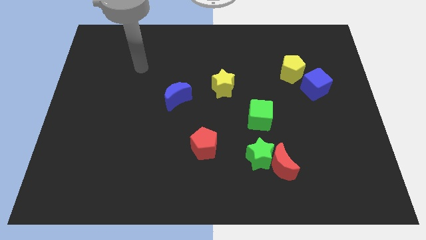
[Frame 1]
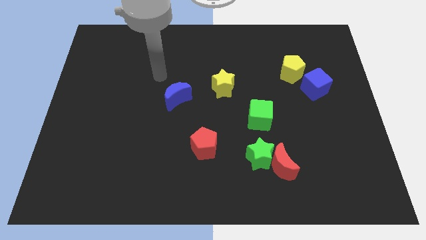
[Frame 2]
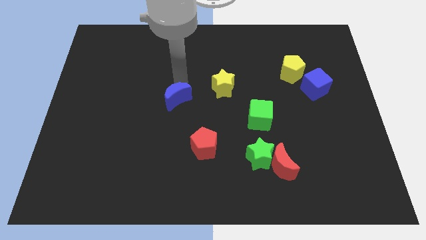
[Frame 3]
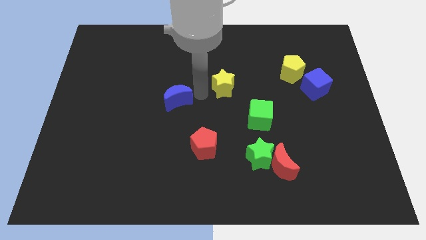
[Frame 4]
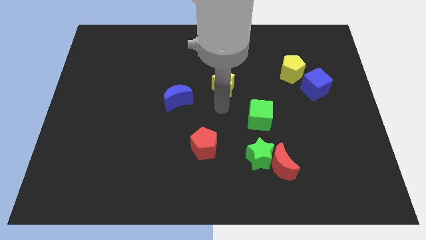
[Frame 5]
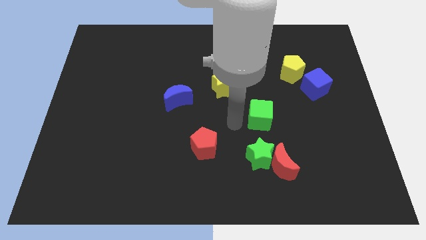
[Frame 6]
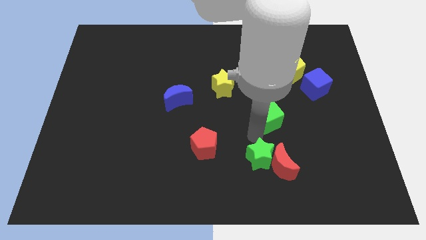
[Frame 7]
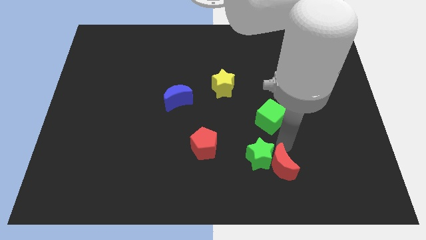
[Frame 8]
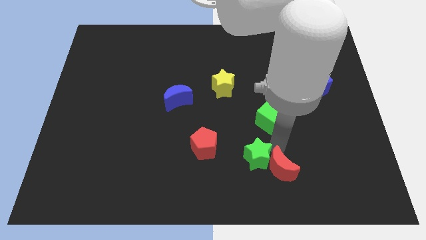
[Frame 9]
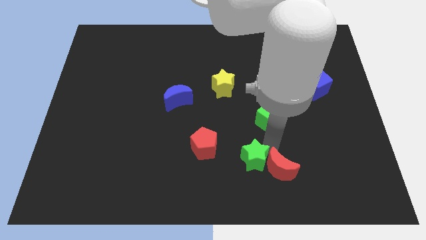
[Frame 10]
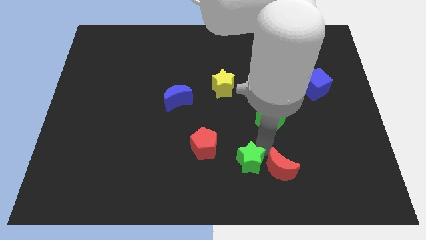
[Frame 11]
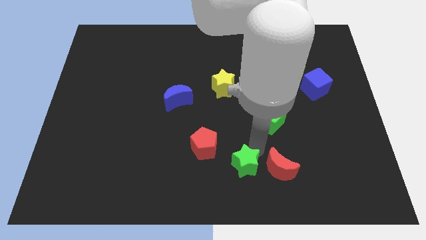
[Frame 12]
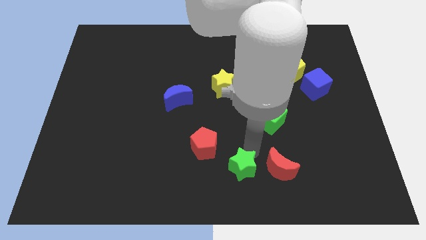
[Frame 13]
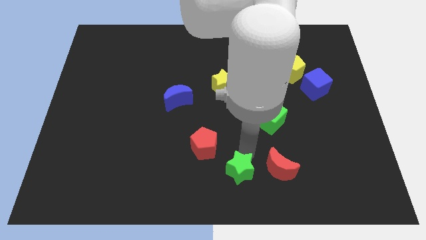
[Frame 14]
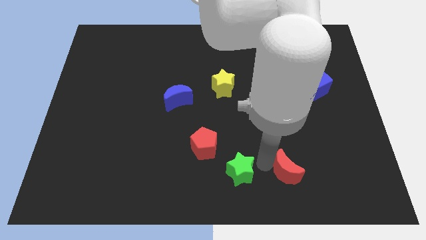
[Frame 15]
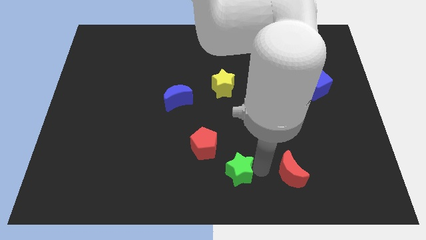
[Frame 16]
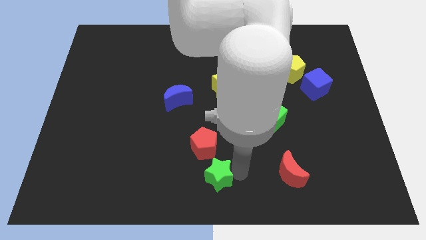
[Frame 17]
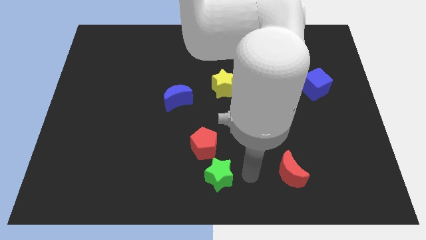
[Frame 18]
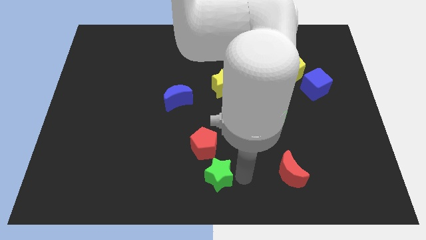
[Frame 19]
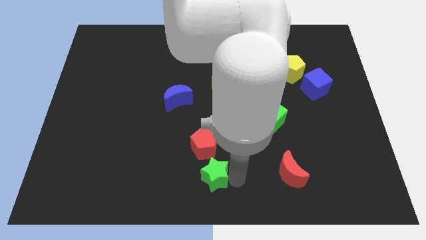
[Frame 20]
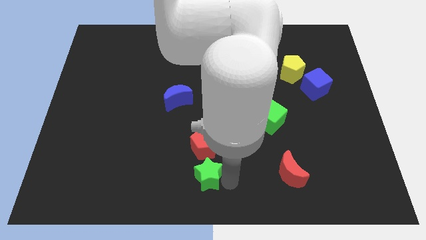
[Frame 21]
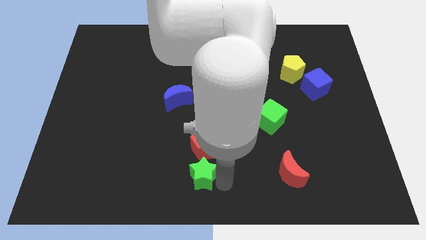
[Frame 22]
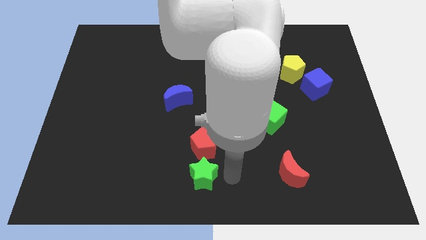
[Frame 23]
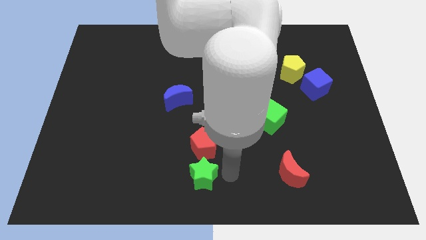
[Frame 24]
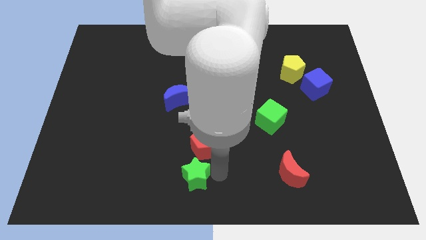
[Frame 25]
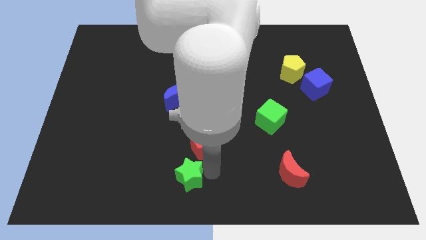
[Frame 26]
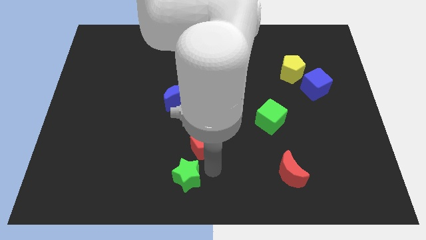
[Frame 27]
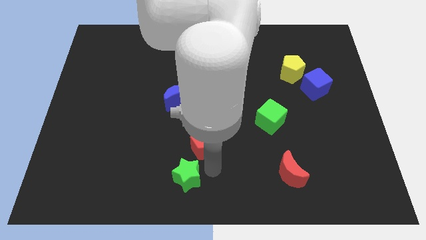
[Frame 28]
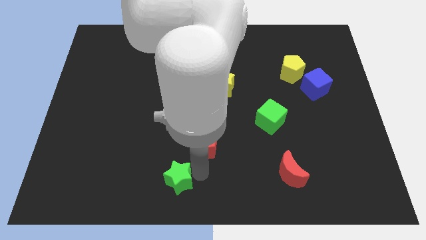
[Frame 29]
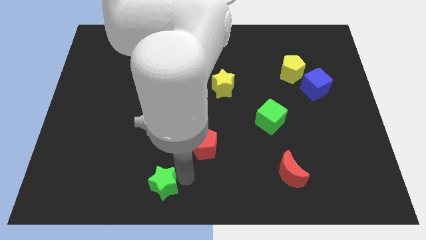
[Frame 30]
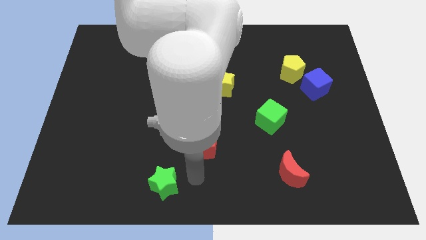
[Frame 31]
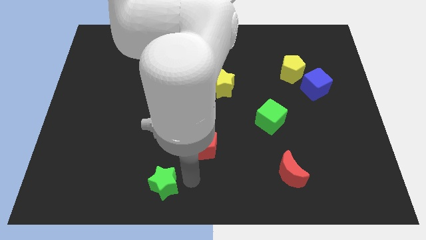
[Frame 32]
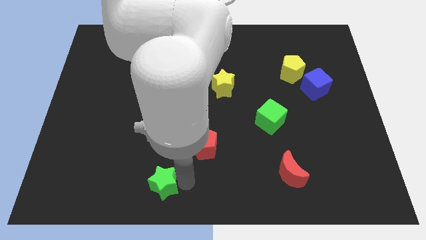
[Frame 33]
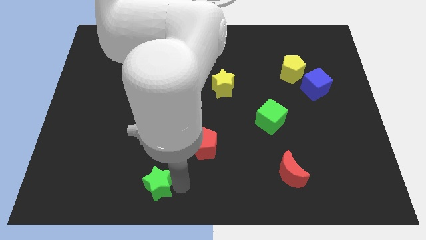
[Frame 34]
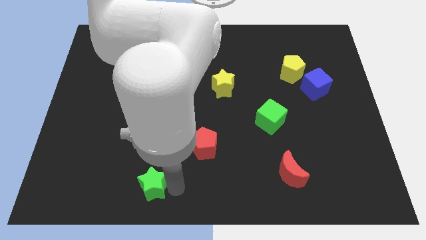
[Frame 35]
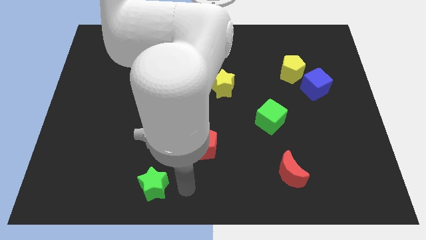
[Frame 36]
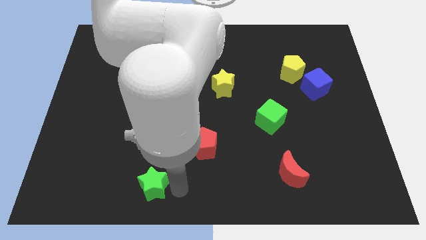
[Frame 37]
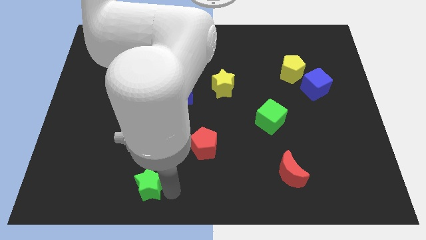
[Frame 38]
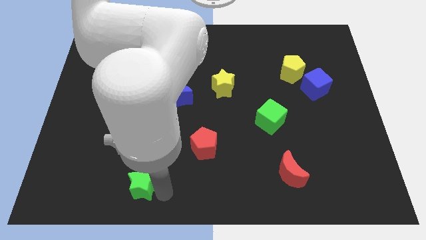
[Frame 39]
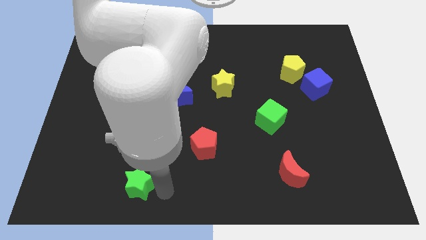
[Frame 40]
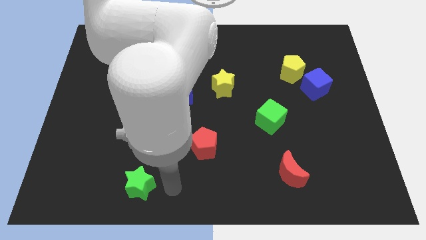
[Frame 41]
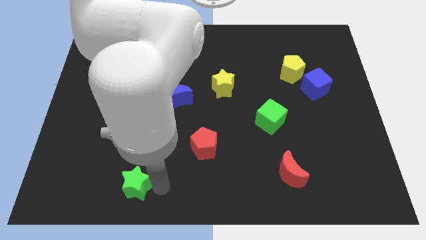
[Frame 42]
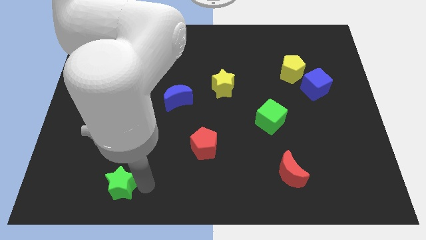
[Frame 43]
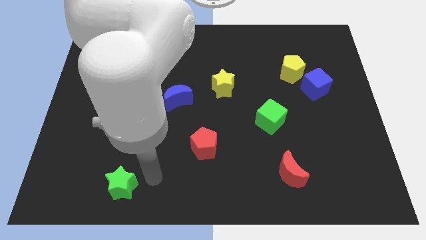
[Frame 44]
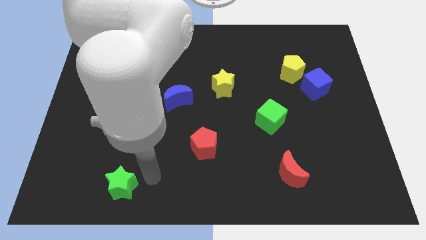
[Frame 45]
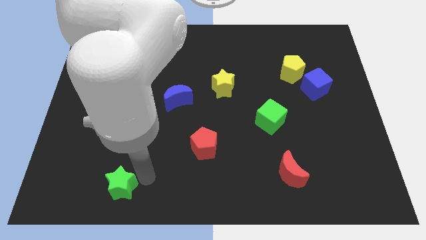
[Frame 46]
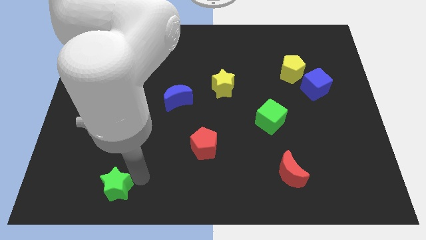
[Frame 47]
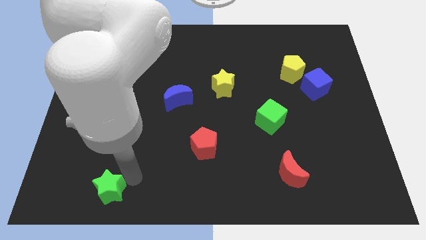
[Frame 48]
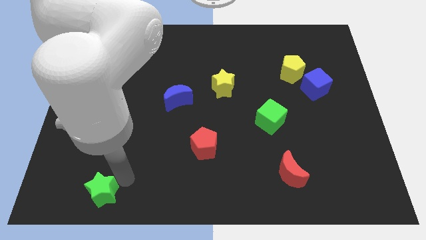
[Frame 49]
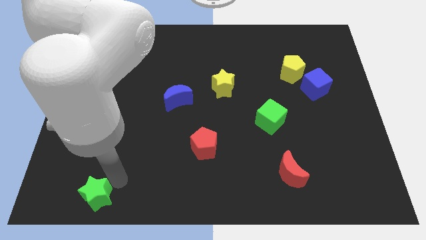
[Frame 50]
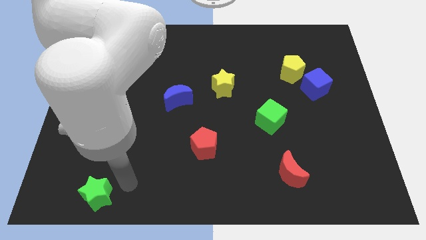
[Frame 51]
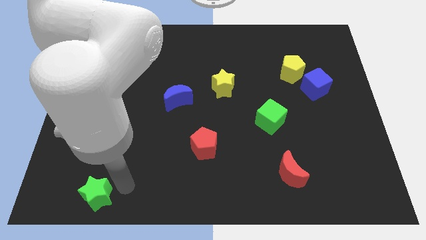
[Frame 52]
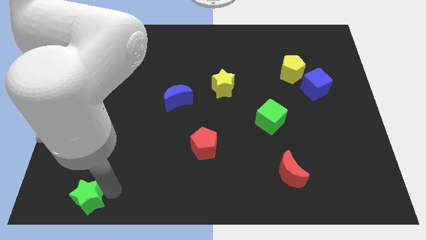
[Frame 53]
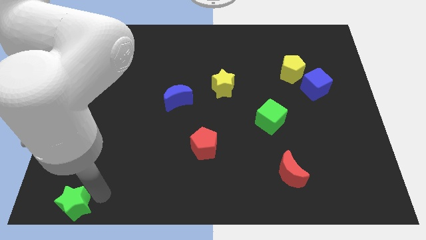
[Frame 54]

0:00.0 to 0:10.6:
move the green star to the lower left corner

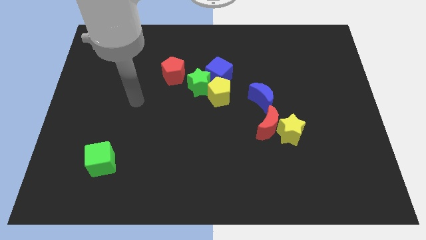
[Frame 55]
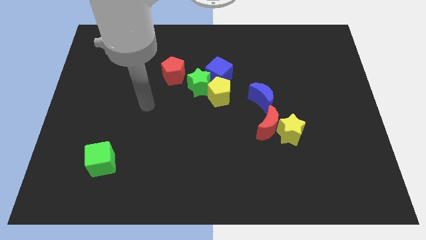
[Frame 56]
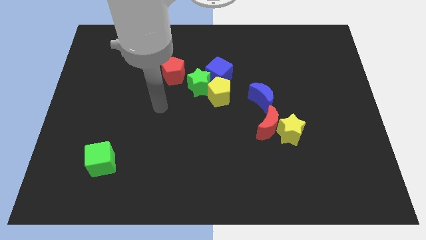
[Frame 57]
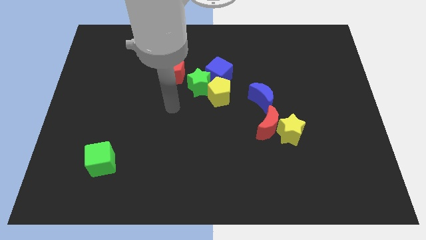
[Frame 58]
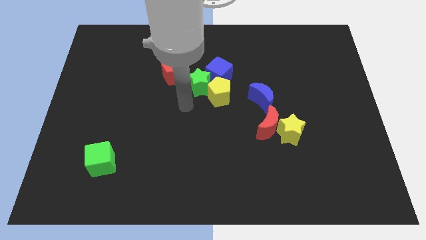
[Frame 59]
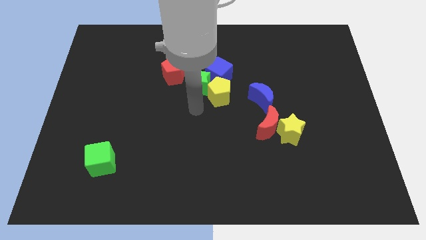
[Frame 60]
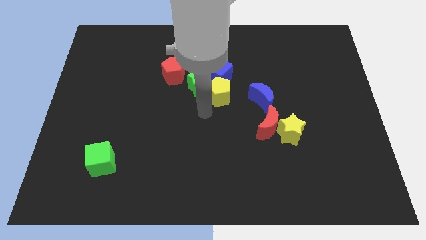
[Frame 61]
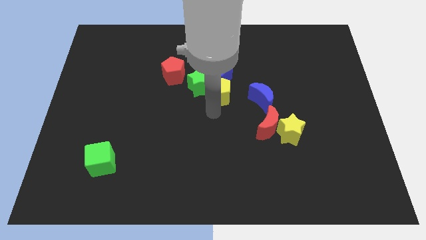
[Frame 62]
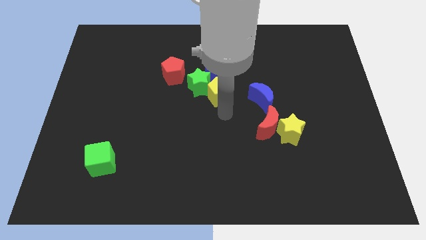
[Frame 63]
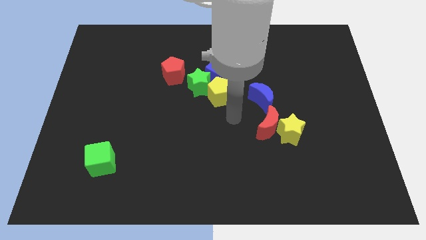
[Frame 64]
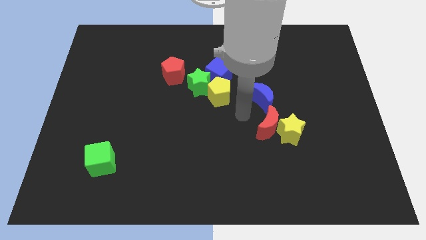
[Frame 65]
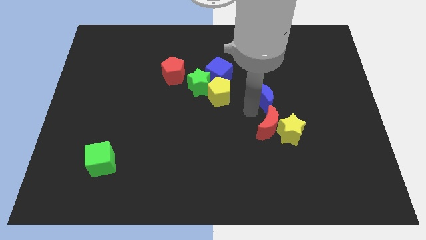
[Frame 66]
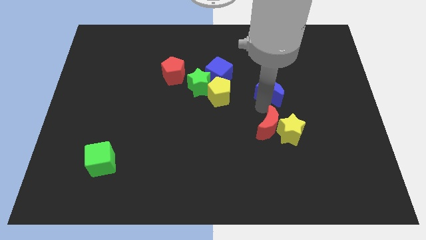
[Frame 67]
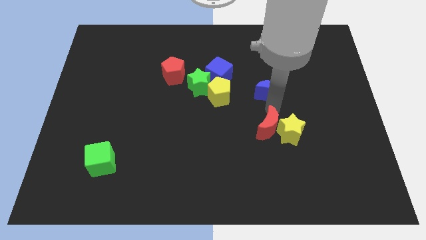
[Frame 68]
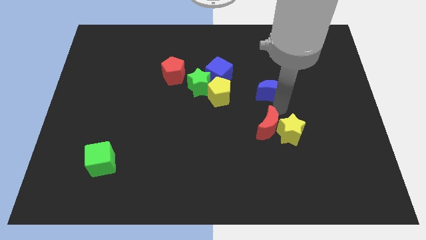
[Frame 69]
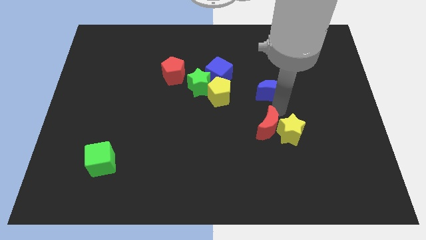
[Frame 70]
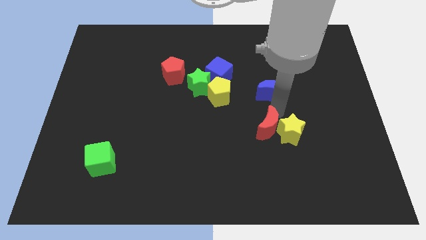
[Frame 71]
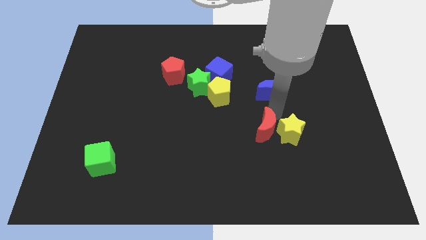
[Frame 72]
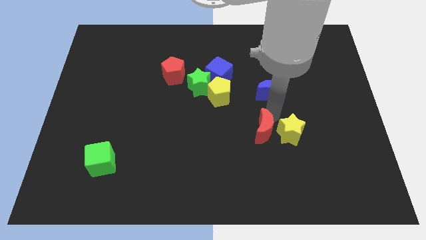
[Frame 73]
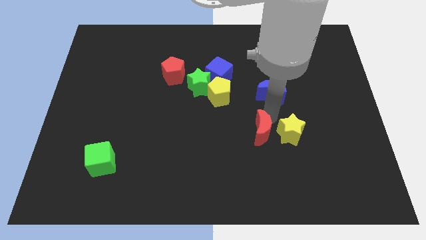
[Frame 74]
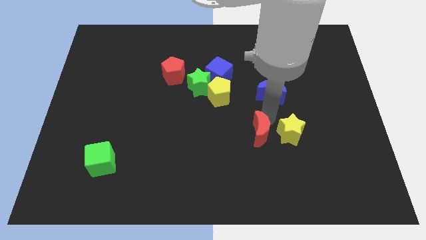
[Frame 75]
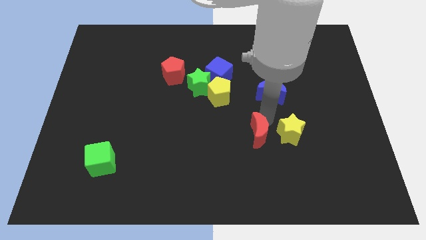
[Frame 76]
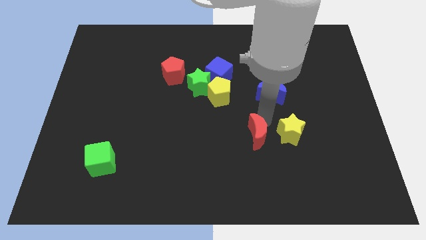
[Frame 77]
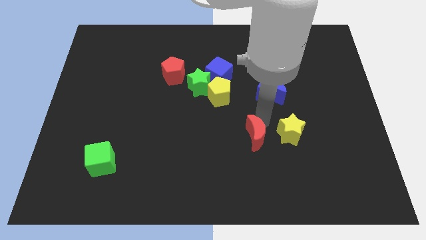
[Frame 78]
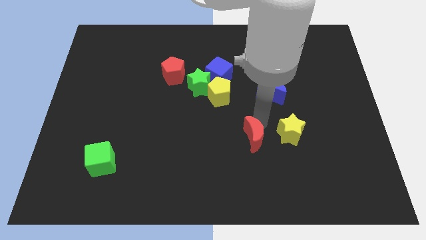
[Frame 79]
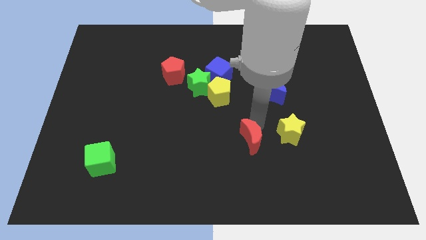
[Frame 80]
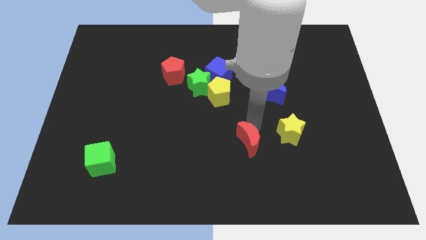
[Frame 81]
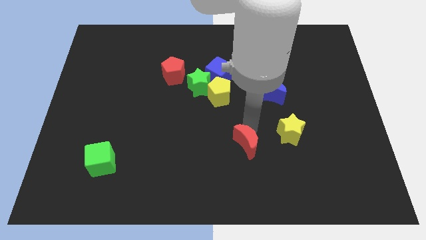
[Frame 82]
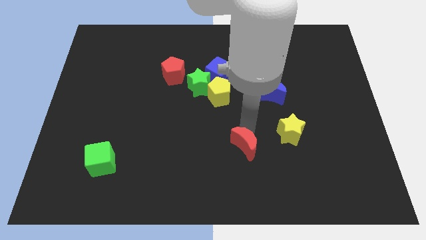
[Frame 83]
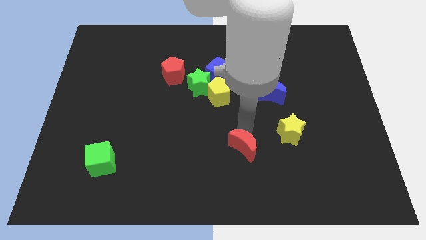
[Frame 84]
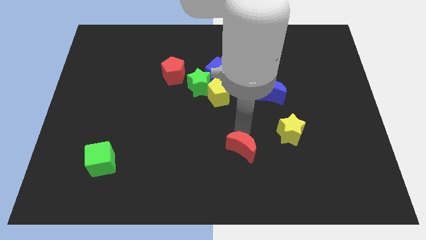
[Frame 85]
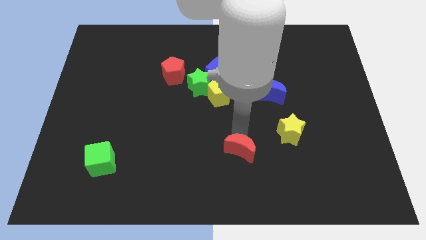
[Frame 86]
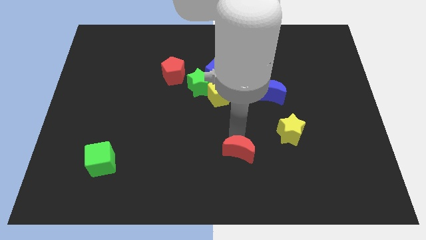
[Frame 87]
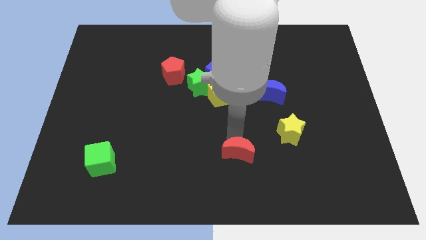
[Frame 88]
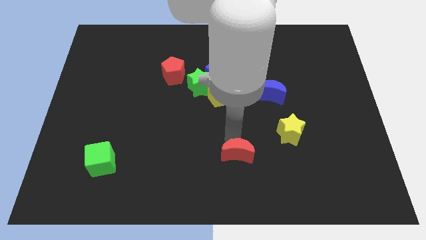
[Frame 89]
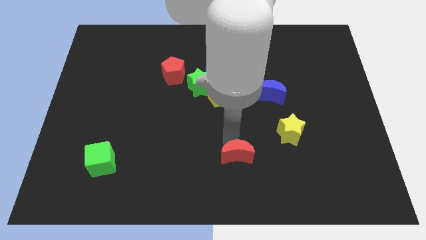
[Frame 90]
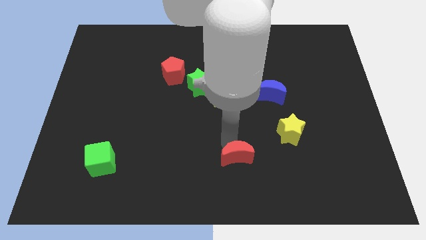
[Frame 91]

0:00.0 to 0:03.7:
push the red moon to the bottom side
